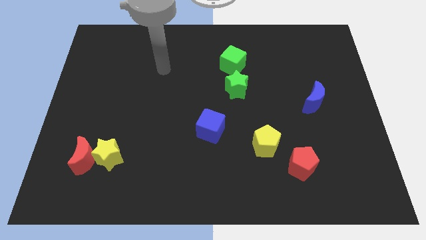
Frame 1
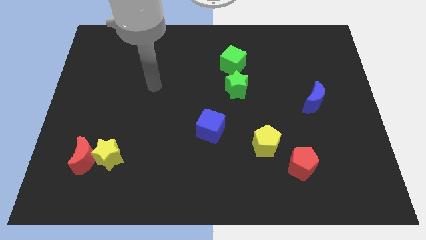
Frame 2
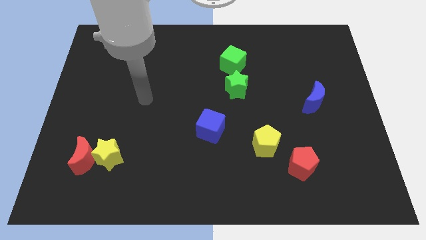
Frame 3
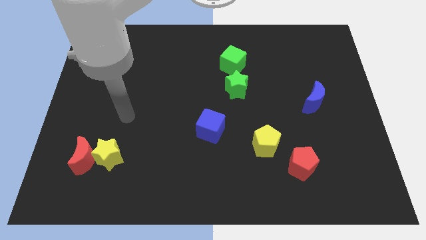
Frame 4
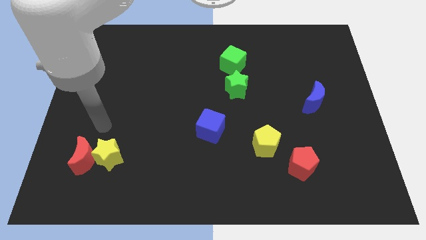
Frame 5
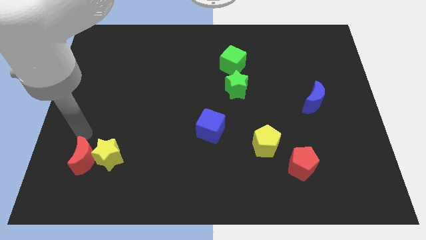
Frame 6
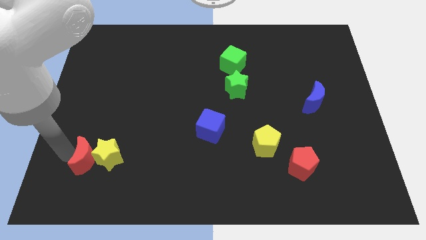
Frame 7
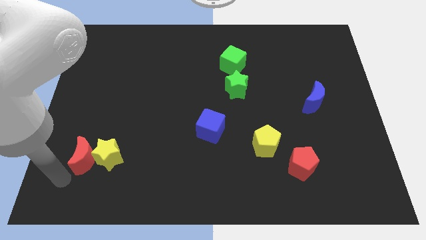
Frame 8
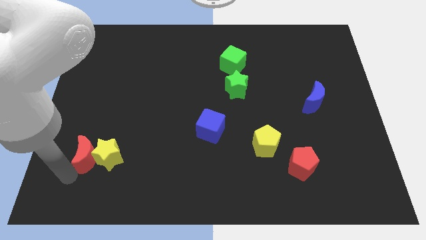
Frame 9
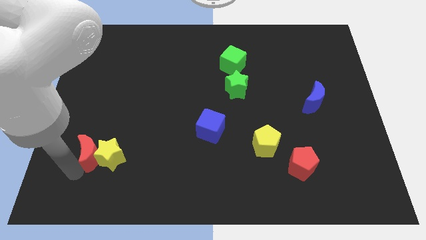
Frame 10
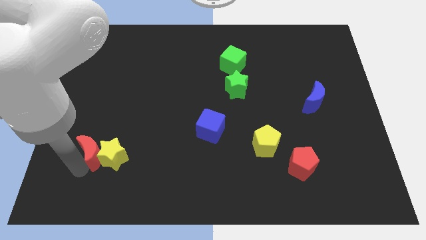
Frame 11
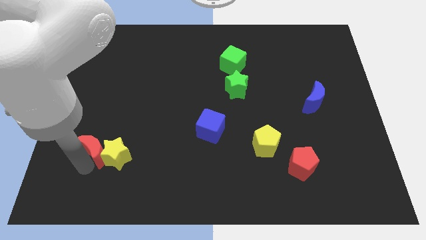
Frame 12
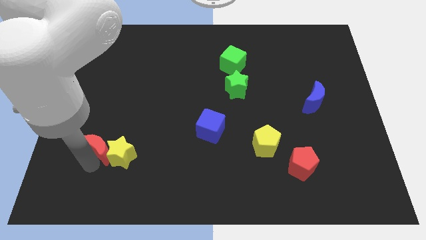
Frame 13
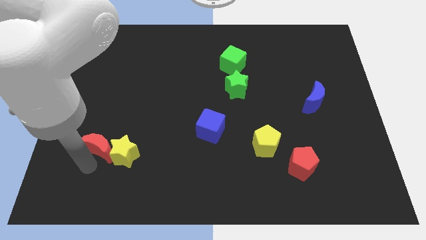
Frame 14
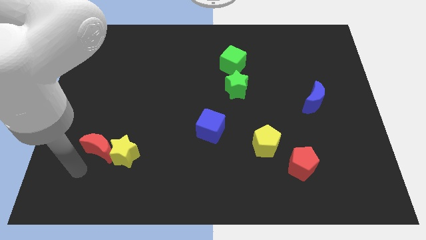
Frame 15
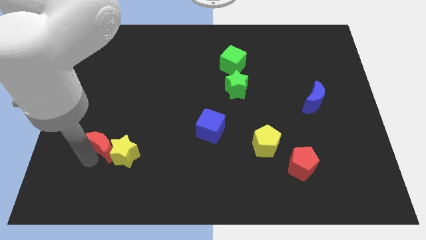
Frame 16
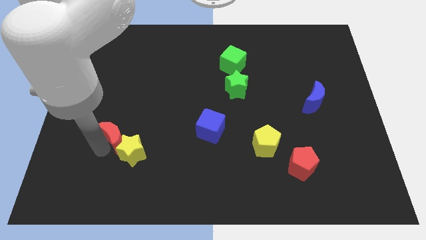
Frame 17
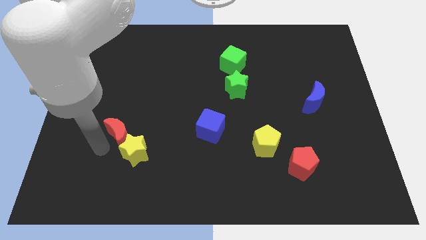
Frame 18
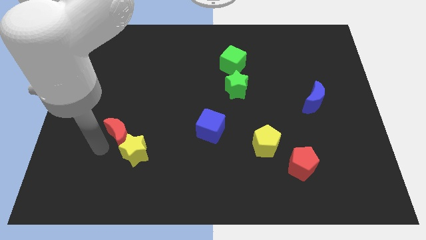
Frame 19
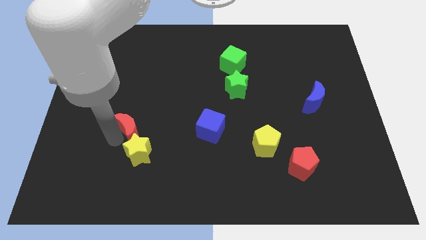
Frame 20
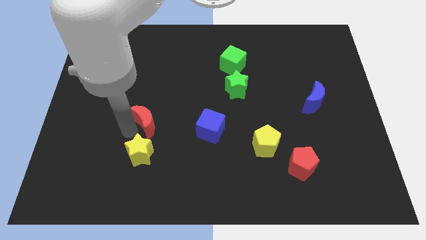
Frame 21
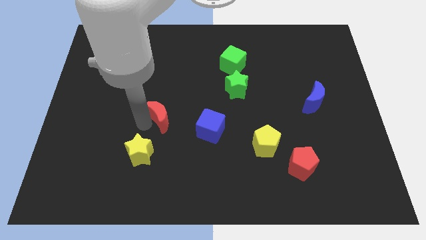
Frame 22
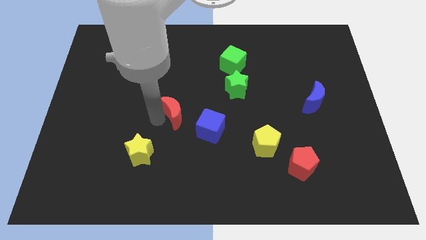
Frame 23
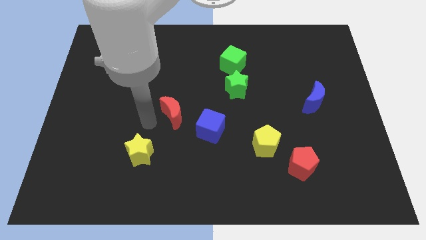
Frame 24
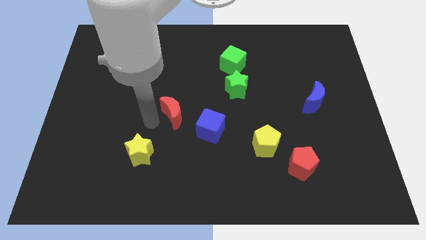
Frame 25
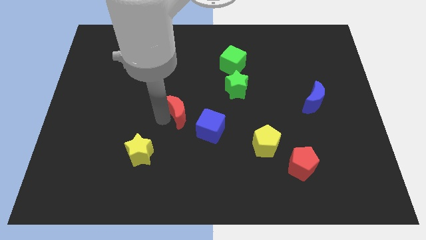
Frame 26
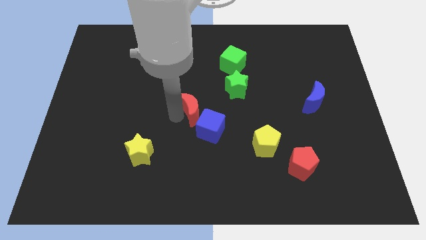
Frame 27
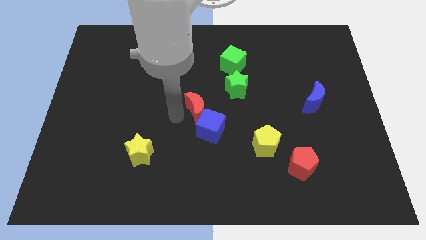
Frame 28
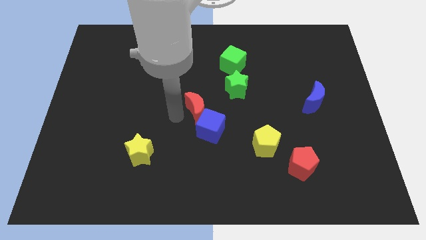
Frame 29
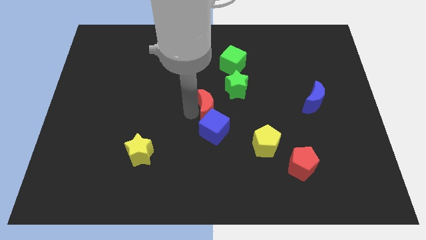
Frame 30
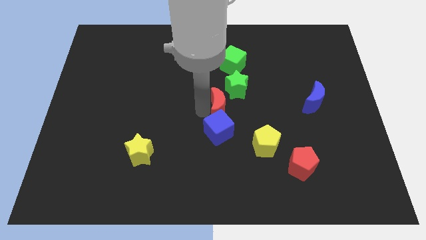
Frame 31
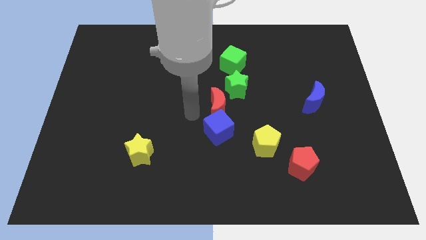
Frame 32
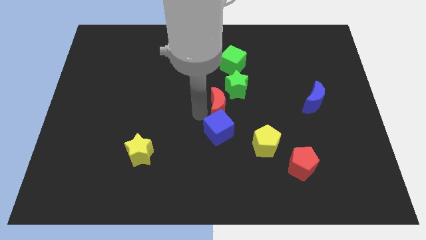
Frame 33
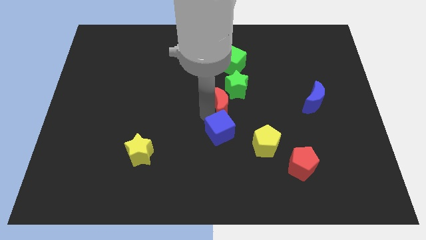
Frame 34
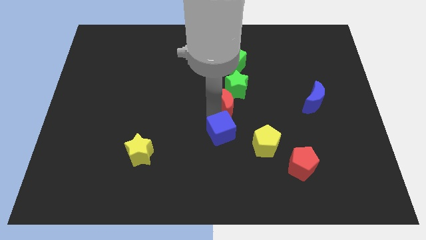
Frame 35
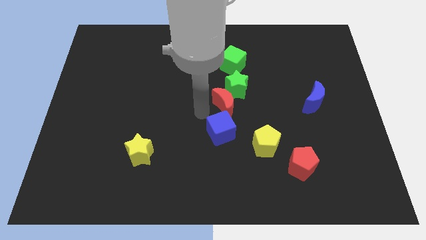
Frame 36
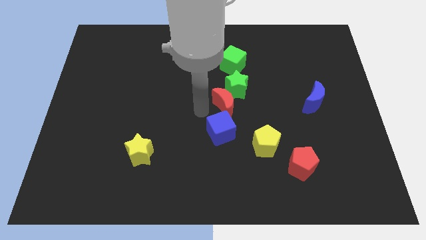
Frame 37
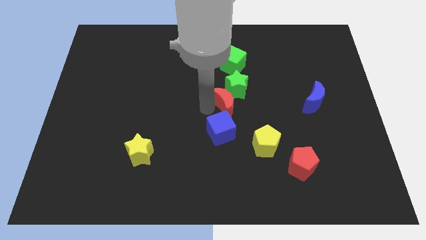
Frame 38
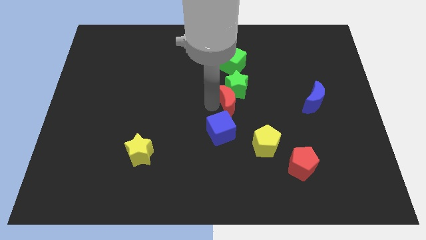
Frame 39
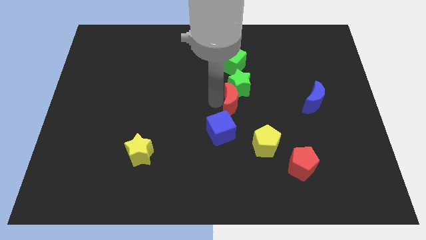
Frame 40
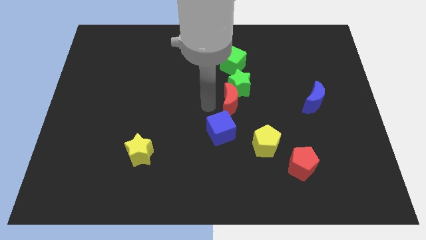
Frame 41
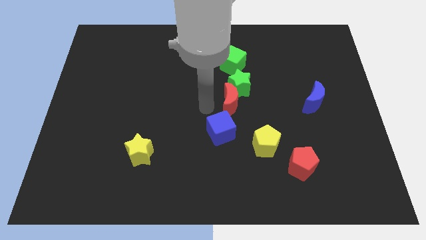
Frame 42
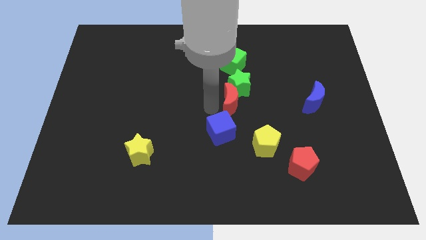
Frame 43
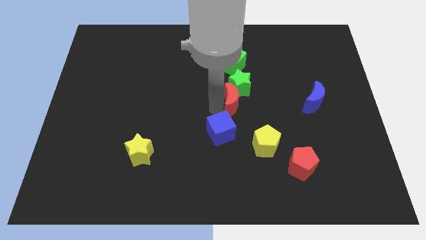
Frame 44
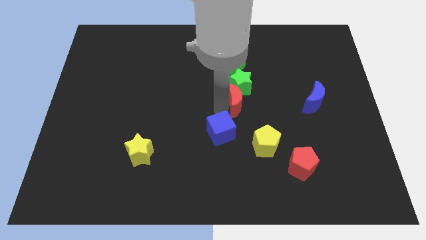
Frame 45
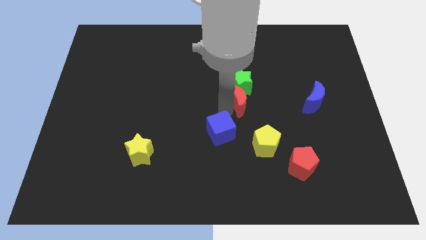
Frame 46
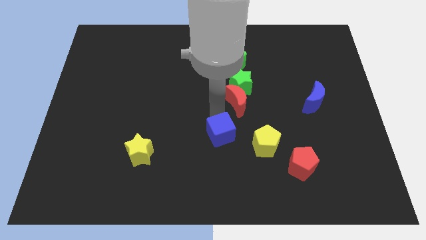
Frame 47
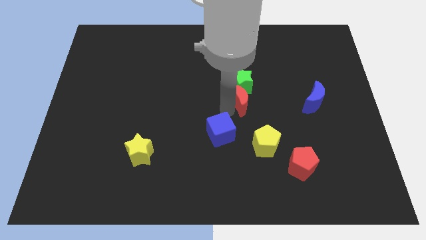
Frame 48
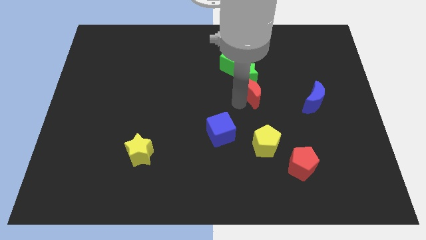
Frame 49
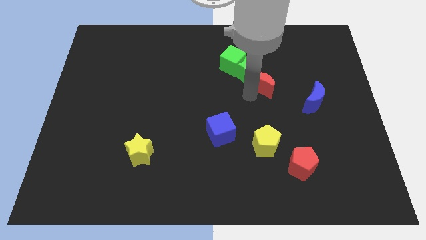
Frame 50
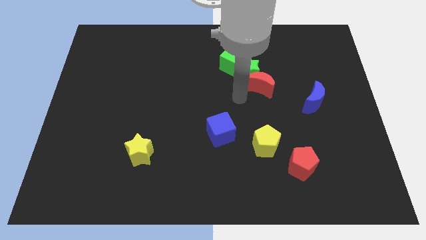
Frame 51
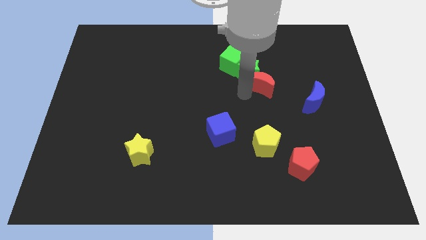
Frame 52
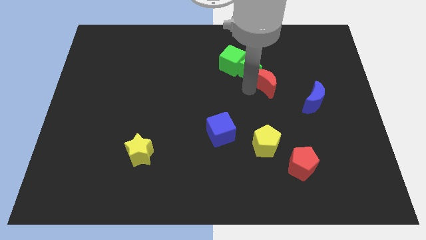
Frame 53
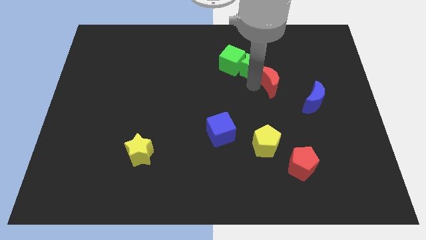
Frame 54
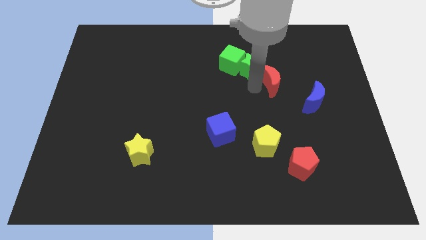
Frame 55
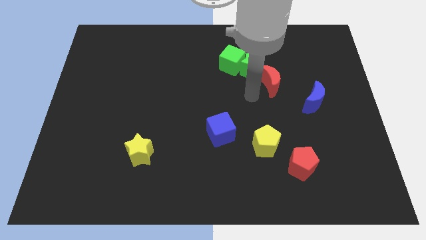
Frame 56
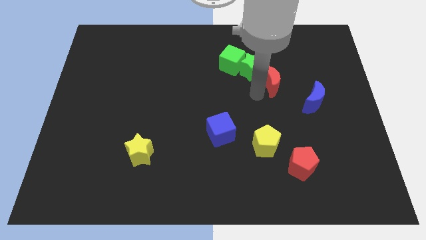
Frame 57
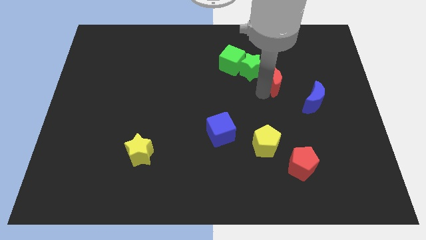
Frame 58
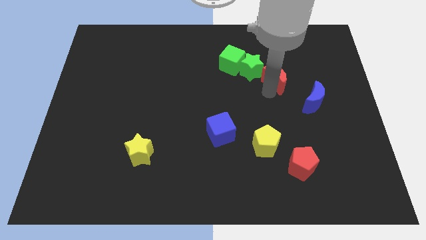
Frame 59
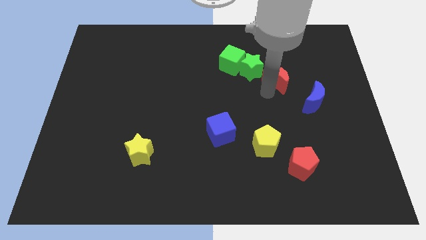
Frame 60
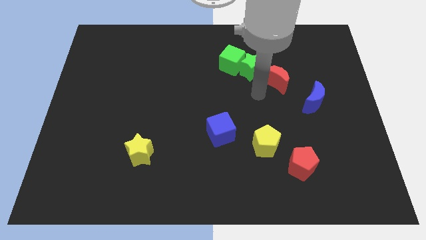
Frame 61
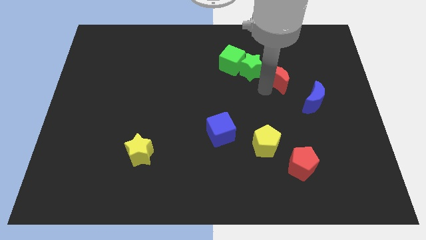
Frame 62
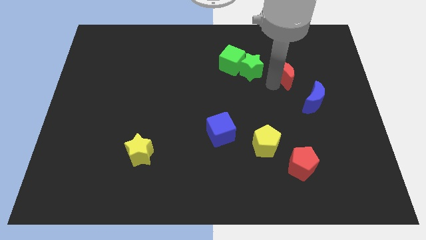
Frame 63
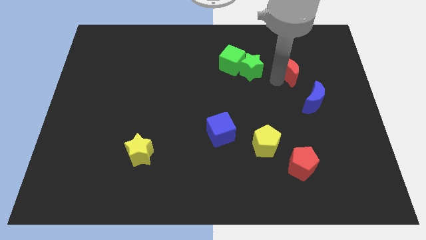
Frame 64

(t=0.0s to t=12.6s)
slide the red moon to the top side of the blue moon

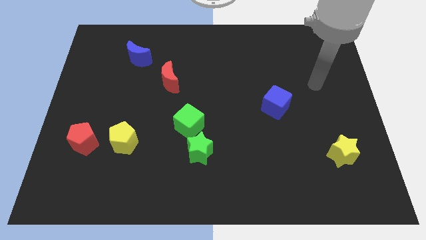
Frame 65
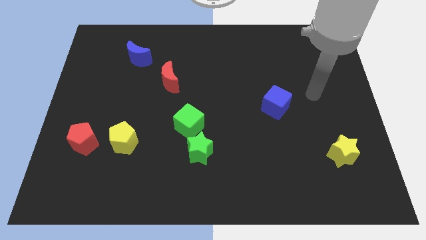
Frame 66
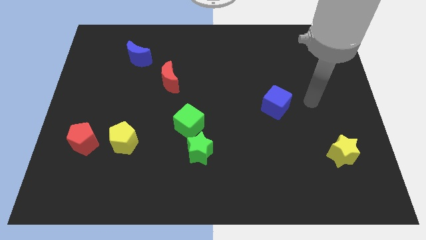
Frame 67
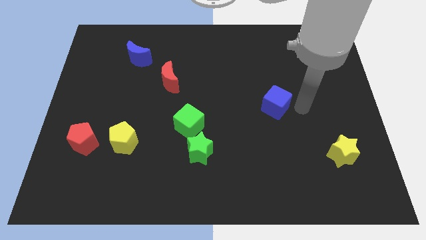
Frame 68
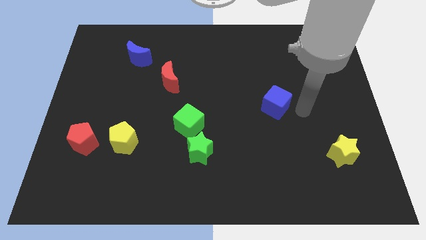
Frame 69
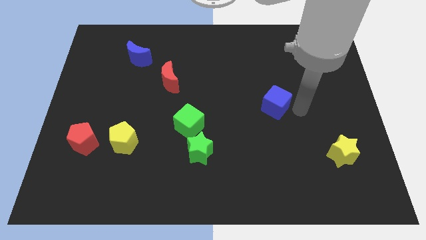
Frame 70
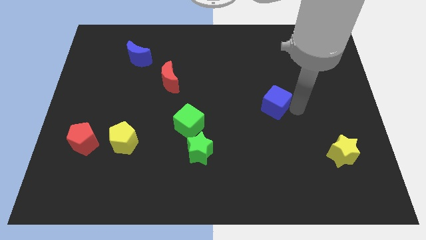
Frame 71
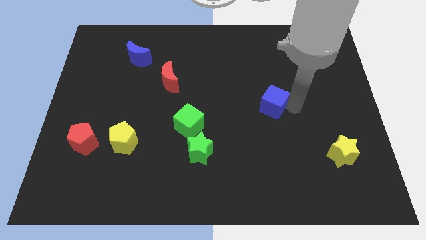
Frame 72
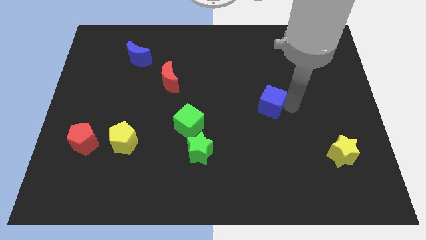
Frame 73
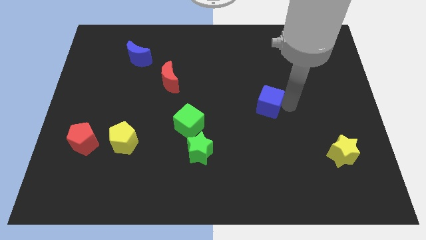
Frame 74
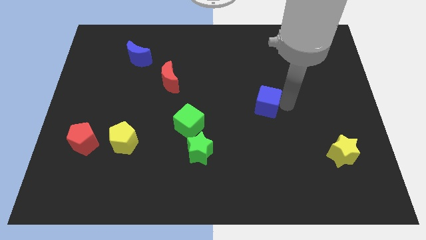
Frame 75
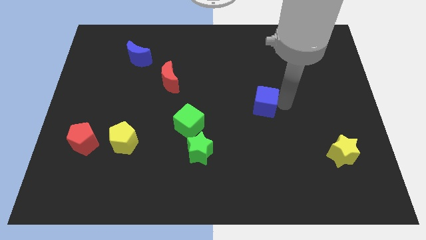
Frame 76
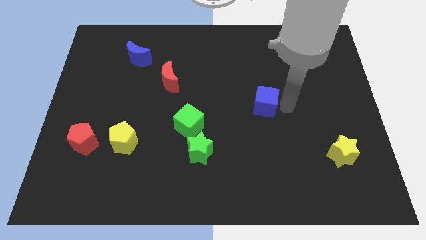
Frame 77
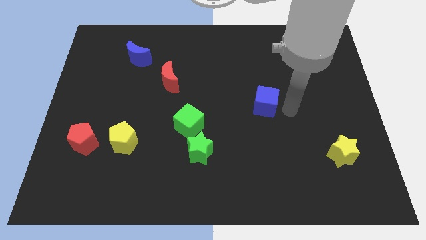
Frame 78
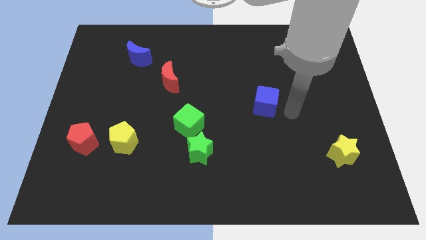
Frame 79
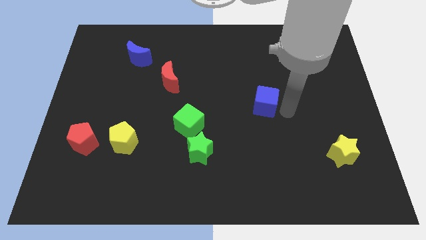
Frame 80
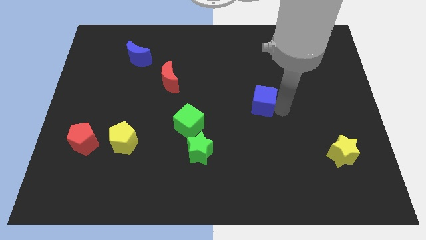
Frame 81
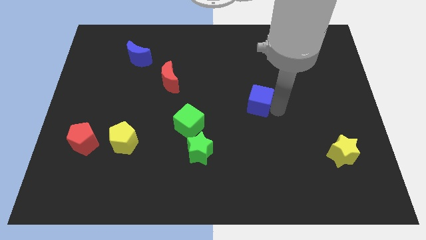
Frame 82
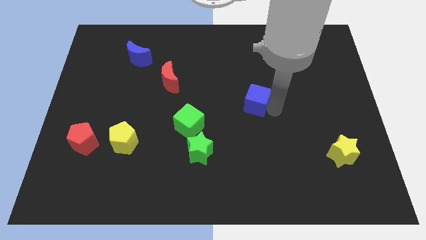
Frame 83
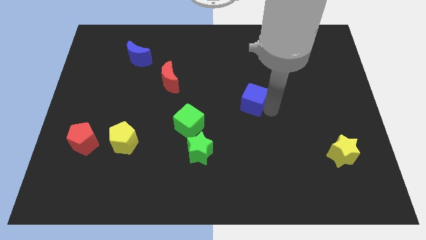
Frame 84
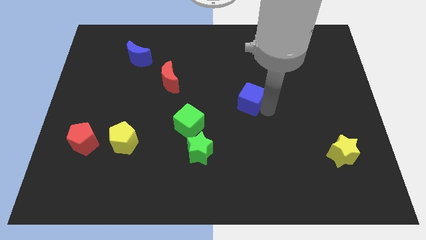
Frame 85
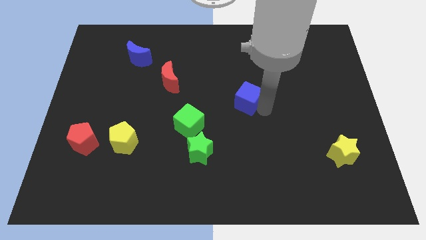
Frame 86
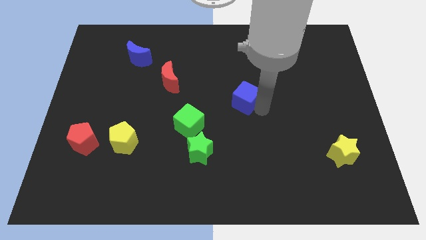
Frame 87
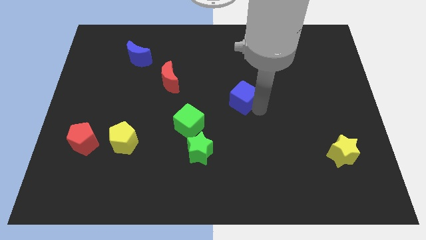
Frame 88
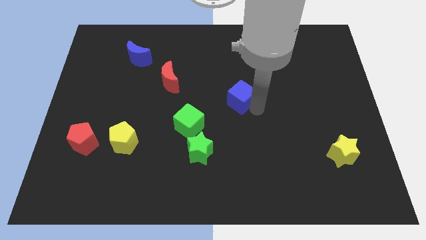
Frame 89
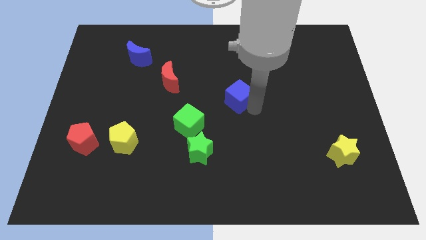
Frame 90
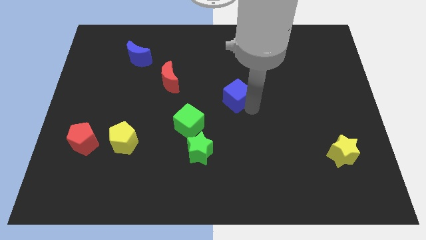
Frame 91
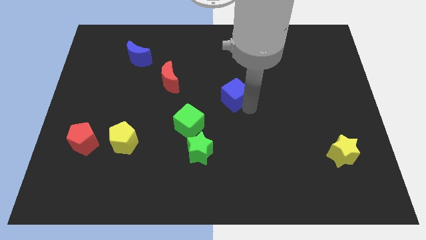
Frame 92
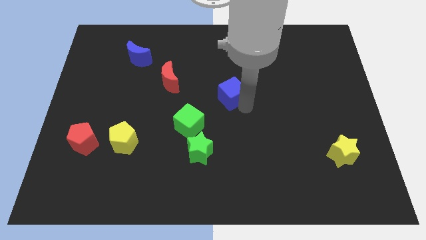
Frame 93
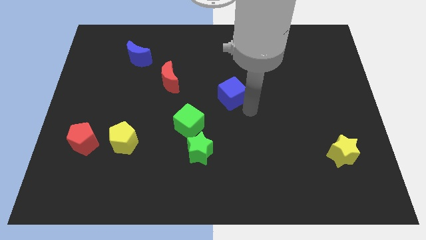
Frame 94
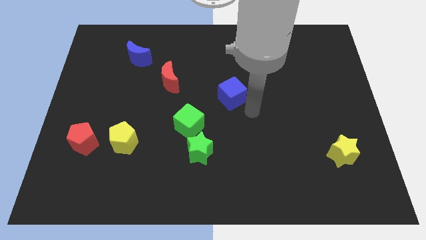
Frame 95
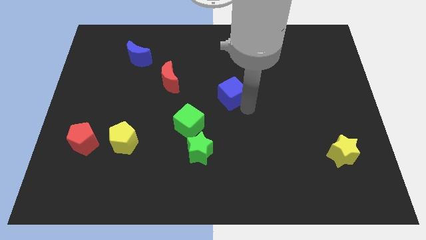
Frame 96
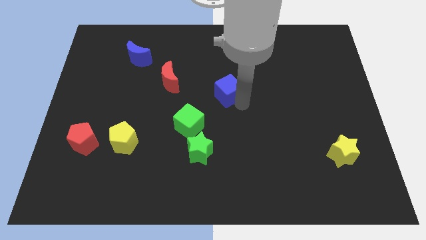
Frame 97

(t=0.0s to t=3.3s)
move the blue cube to the right side of the red moon
